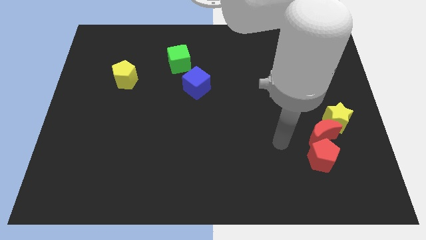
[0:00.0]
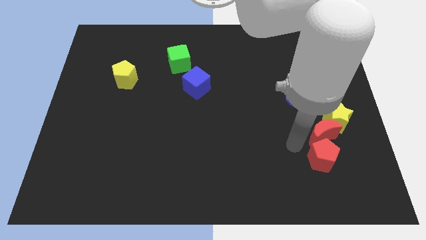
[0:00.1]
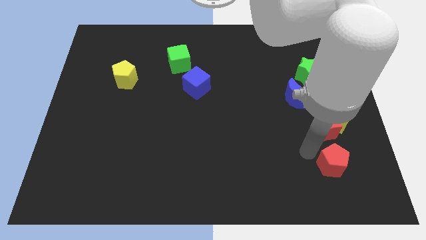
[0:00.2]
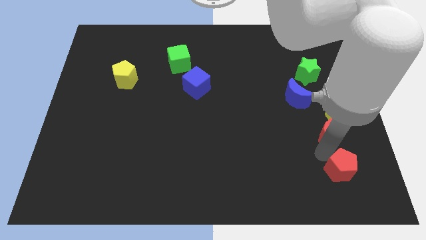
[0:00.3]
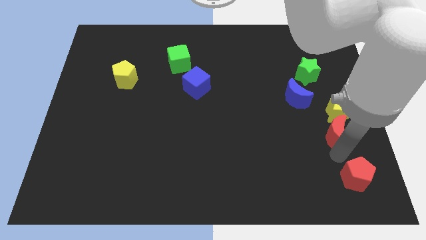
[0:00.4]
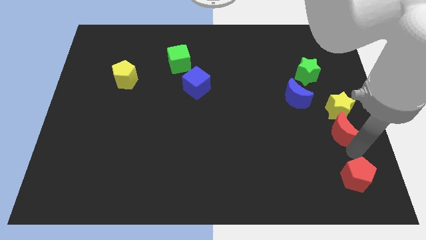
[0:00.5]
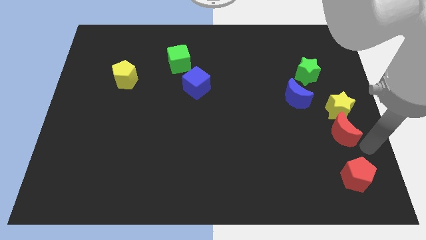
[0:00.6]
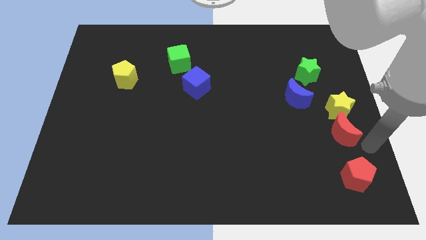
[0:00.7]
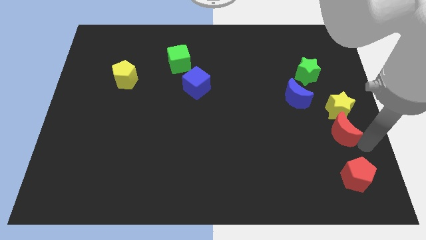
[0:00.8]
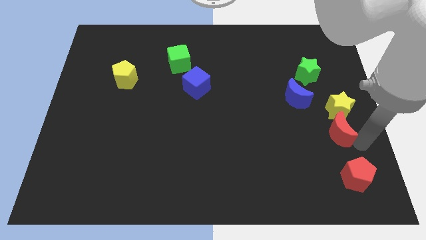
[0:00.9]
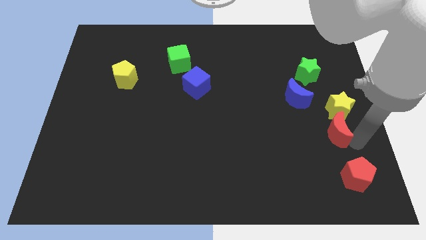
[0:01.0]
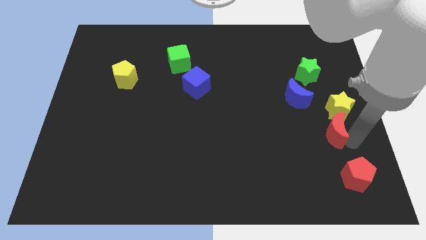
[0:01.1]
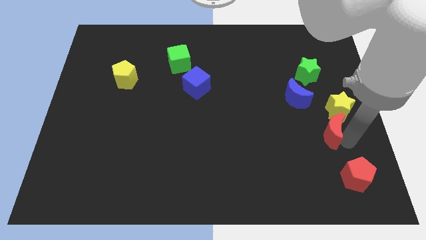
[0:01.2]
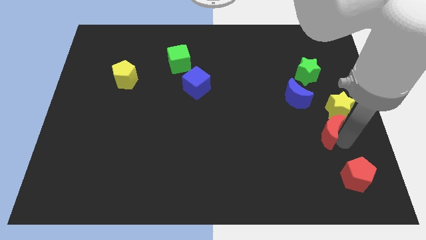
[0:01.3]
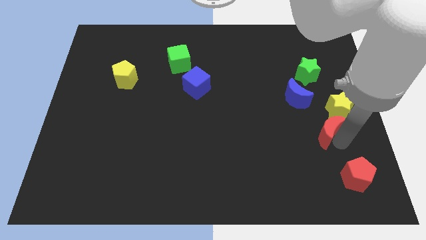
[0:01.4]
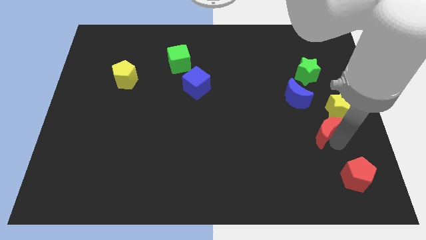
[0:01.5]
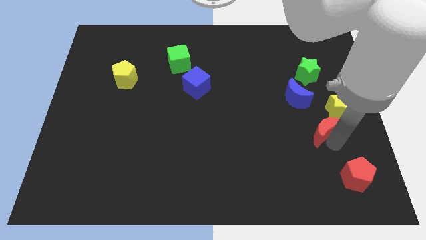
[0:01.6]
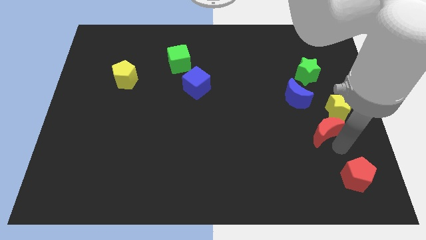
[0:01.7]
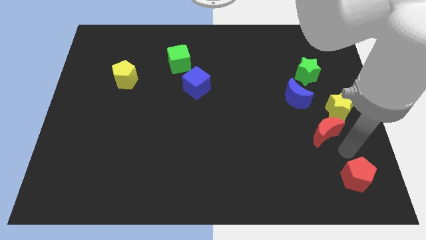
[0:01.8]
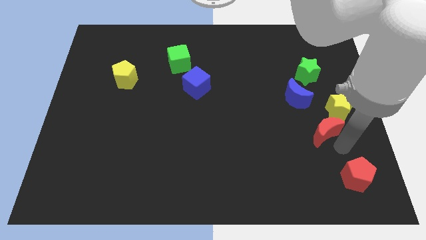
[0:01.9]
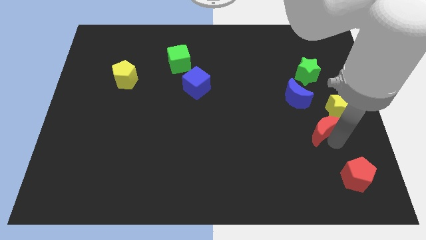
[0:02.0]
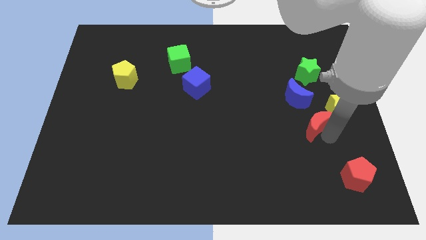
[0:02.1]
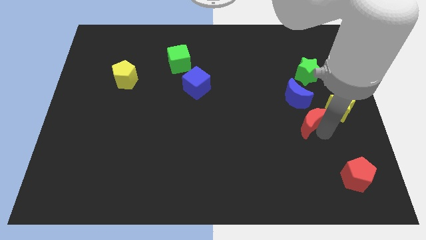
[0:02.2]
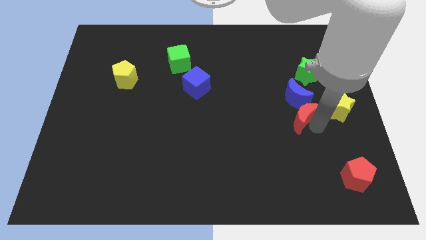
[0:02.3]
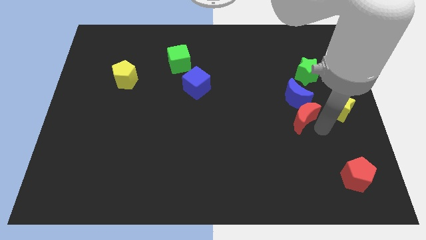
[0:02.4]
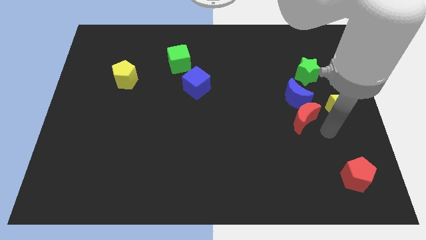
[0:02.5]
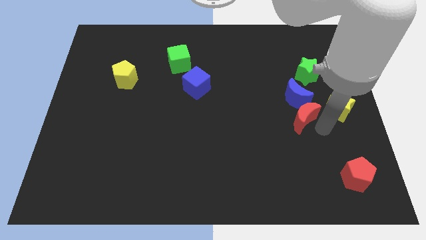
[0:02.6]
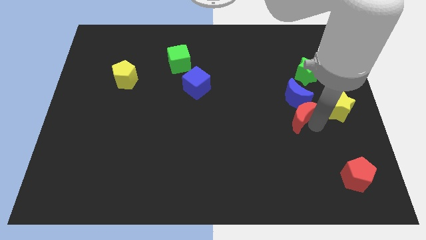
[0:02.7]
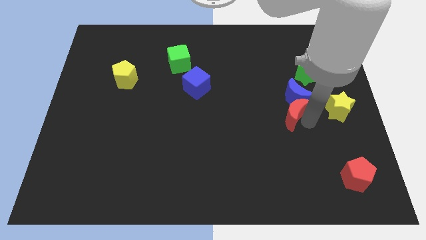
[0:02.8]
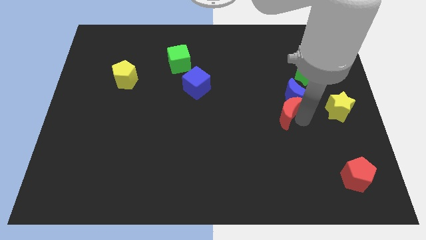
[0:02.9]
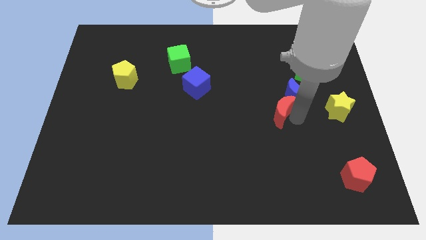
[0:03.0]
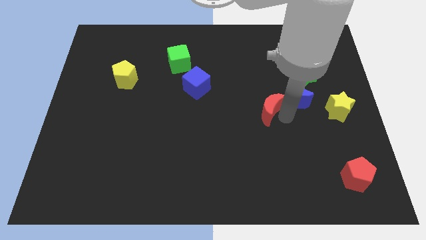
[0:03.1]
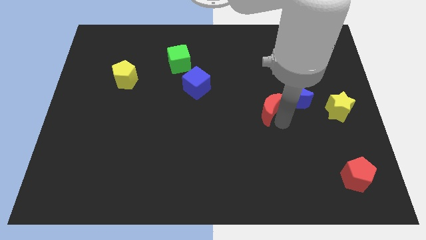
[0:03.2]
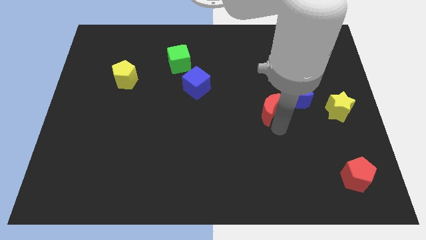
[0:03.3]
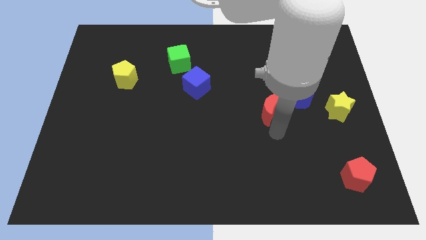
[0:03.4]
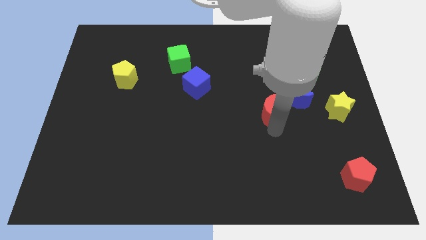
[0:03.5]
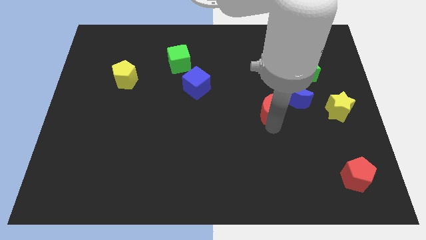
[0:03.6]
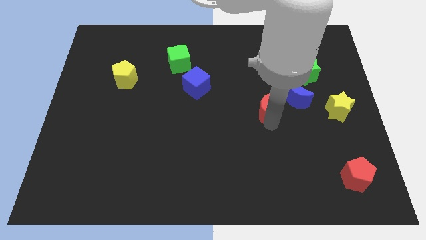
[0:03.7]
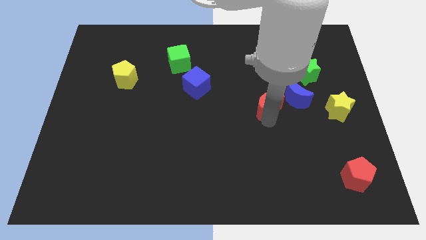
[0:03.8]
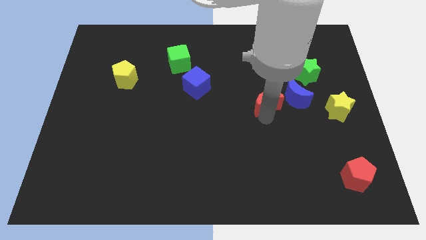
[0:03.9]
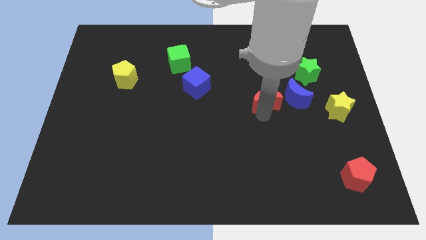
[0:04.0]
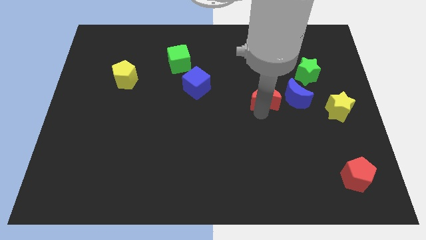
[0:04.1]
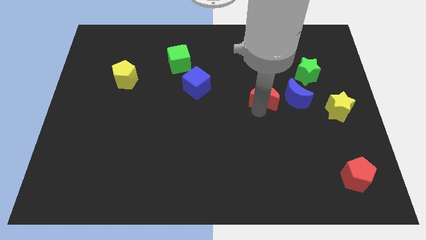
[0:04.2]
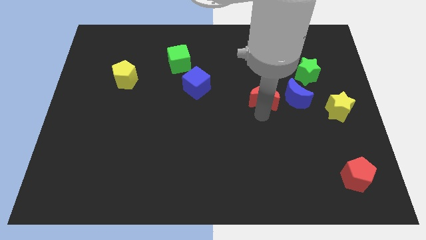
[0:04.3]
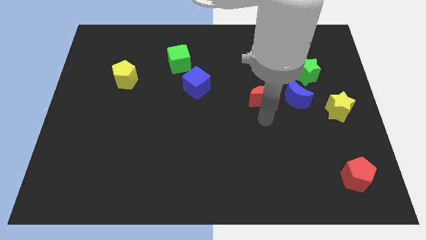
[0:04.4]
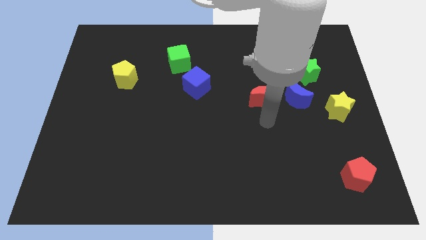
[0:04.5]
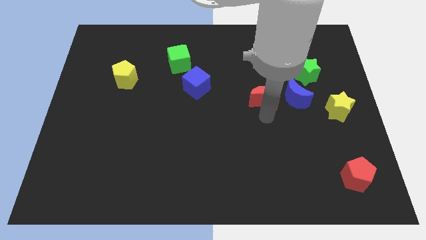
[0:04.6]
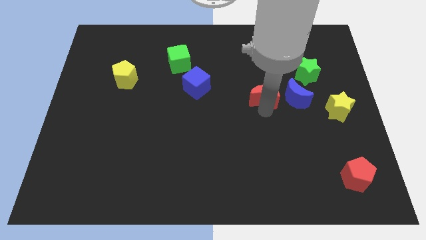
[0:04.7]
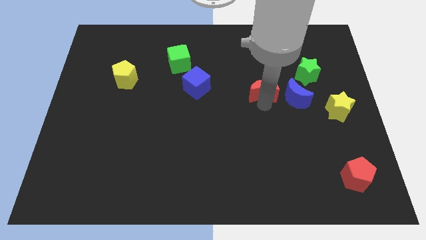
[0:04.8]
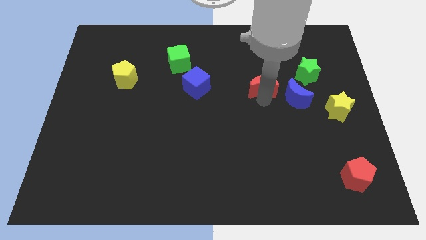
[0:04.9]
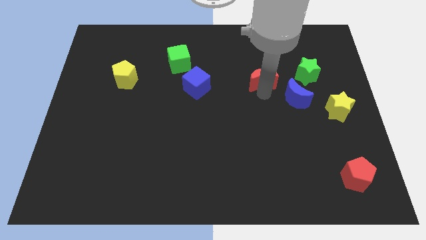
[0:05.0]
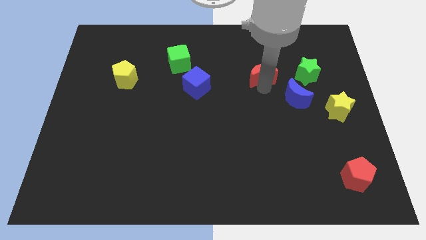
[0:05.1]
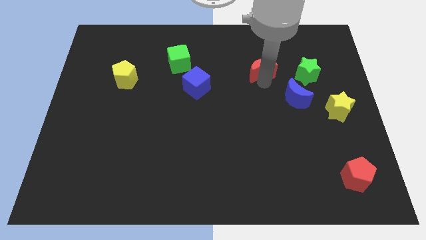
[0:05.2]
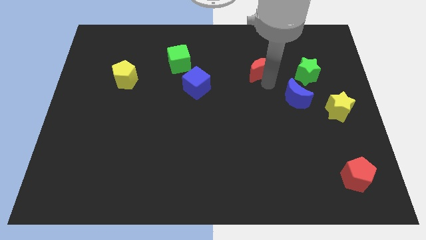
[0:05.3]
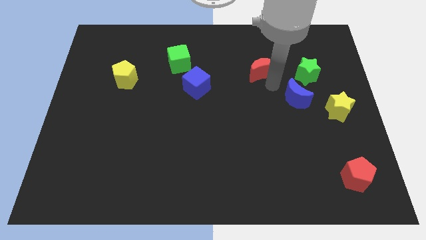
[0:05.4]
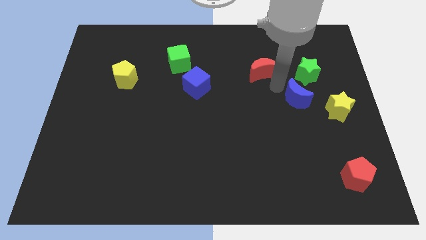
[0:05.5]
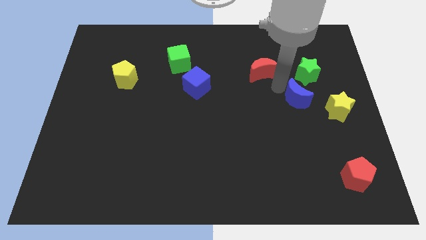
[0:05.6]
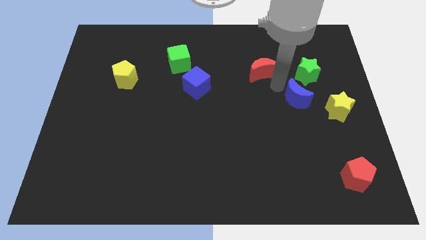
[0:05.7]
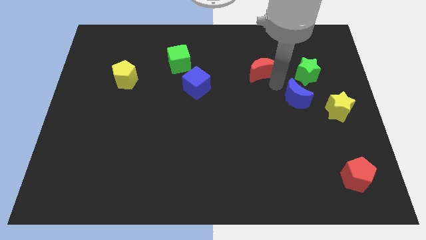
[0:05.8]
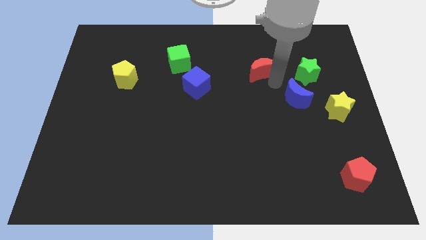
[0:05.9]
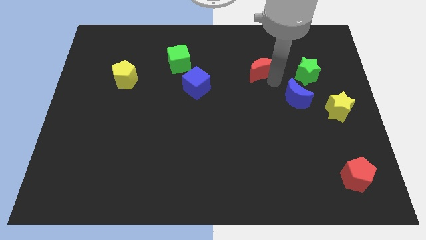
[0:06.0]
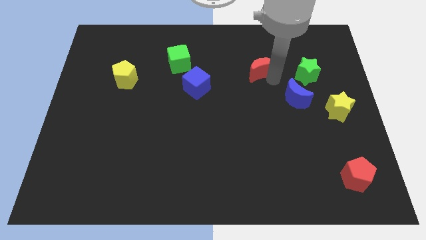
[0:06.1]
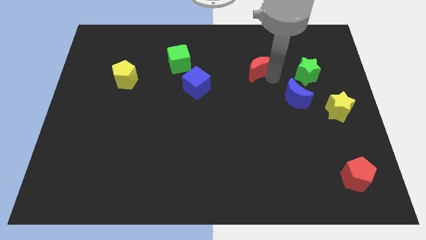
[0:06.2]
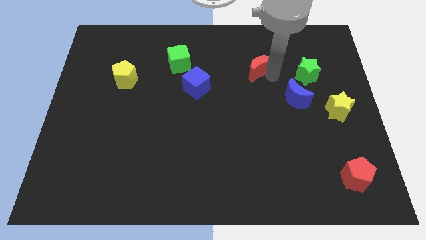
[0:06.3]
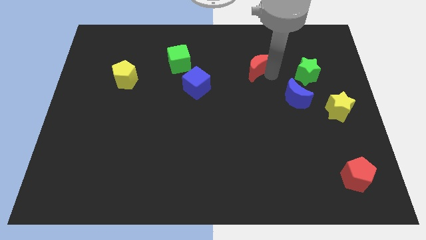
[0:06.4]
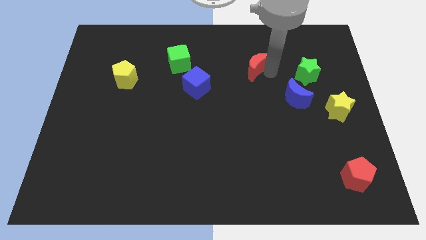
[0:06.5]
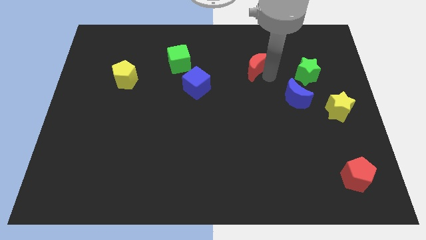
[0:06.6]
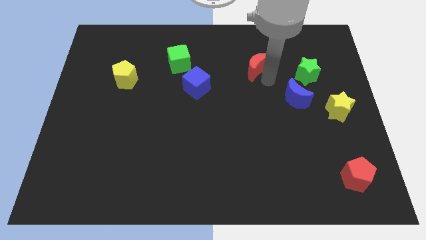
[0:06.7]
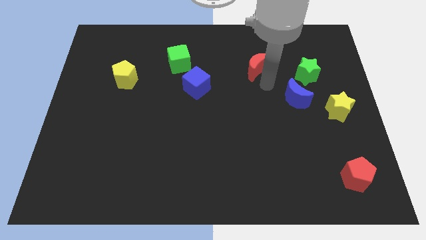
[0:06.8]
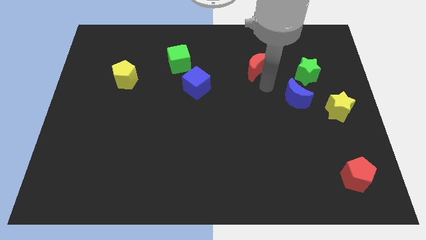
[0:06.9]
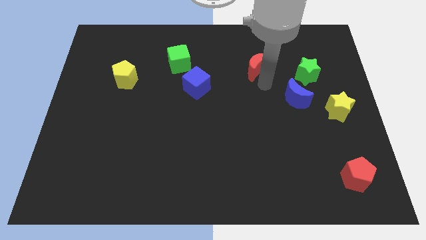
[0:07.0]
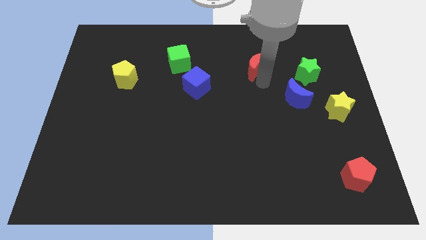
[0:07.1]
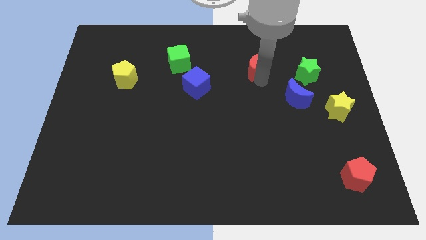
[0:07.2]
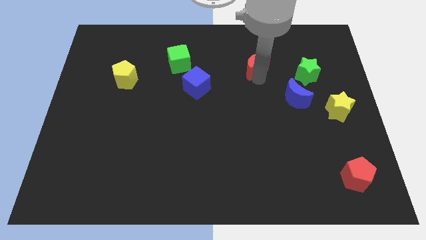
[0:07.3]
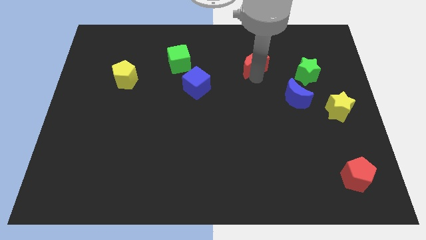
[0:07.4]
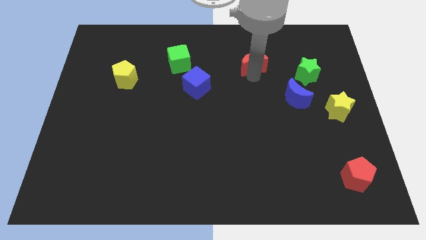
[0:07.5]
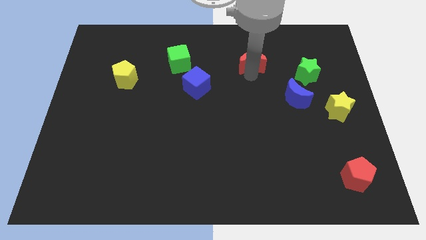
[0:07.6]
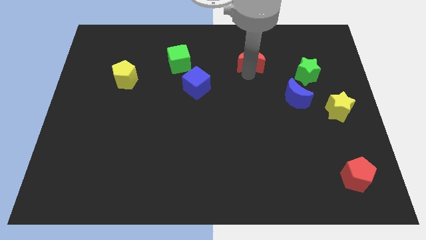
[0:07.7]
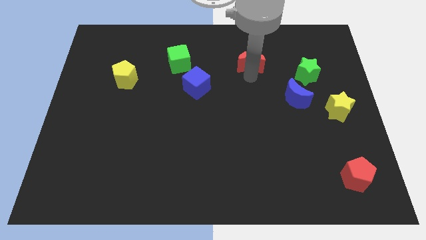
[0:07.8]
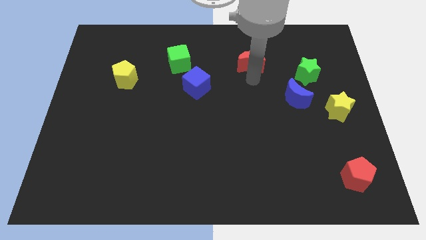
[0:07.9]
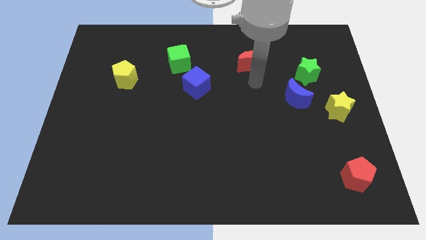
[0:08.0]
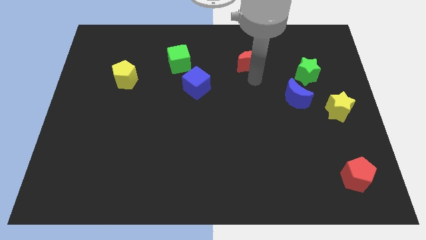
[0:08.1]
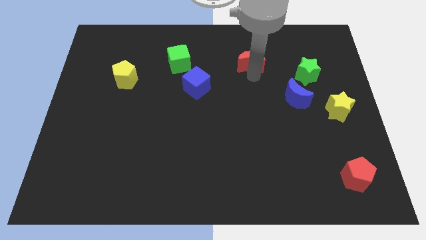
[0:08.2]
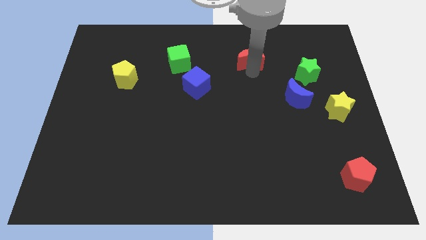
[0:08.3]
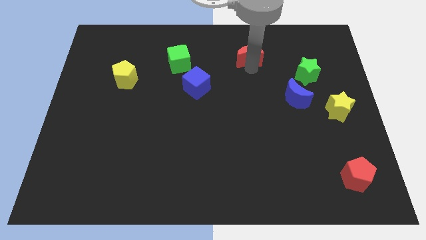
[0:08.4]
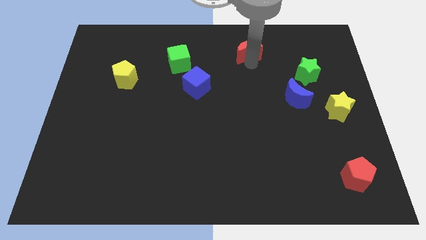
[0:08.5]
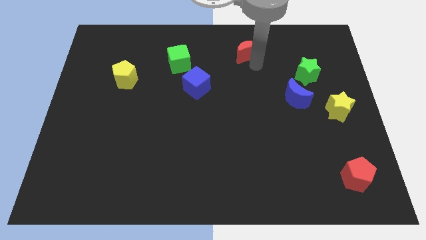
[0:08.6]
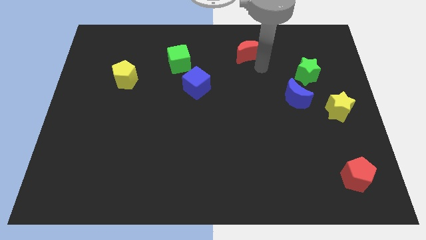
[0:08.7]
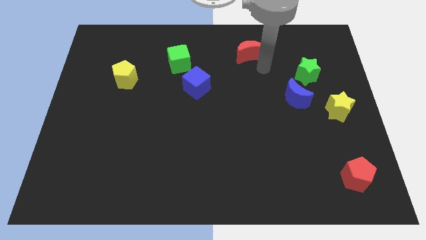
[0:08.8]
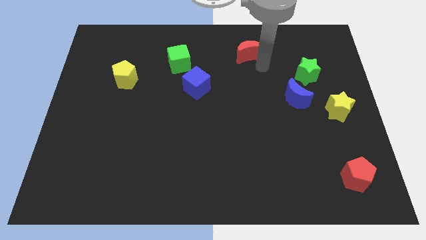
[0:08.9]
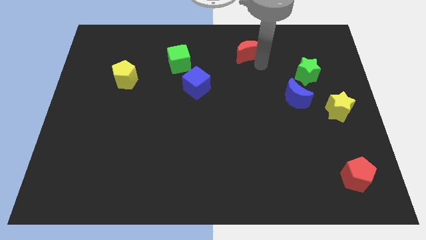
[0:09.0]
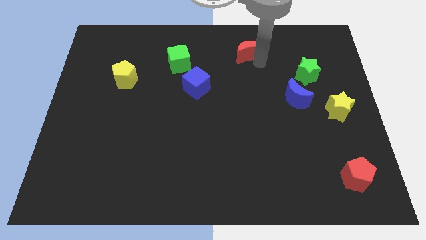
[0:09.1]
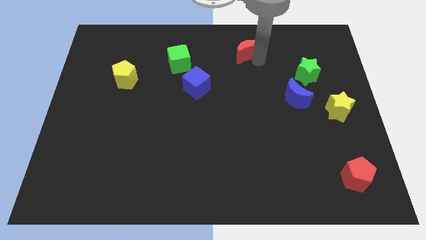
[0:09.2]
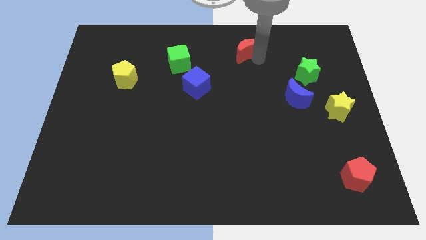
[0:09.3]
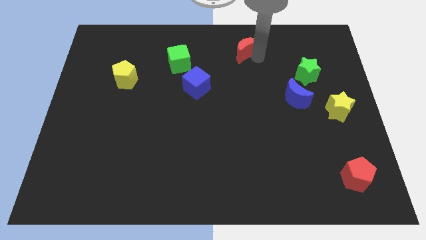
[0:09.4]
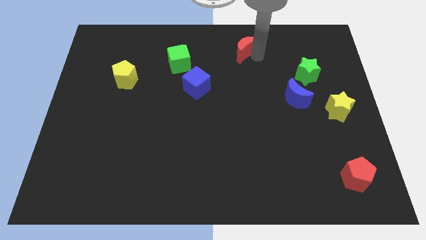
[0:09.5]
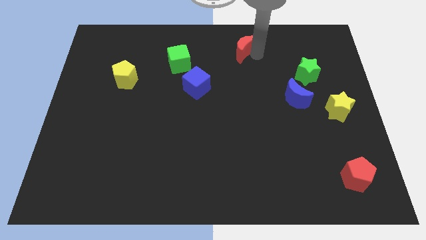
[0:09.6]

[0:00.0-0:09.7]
put the red moon to the top side
